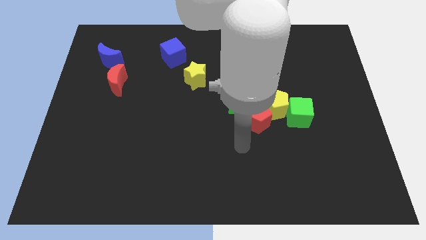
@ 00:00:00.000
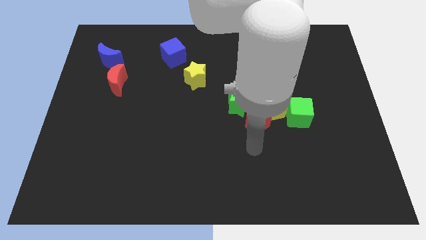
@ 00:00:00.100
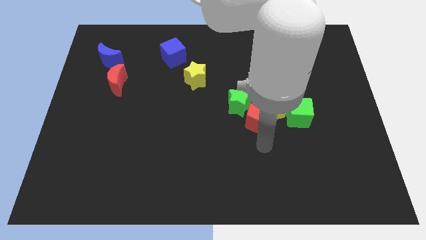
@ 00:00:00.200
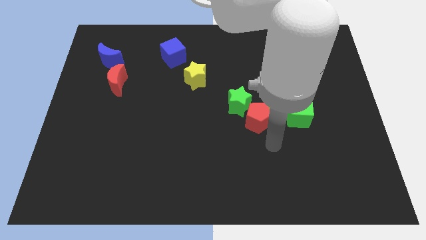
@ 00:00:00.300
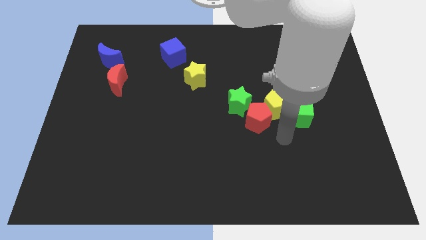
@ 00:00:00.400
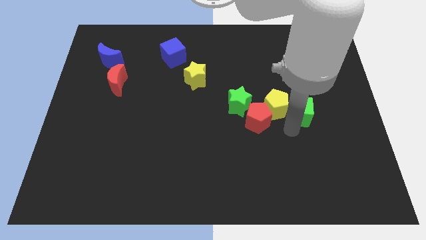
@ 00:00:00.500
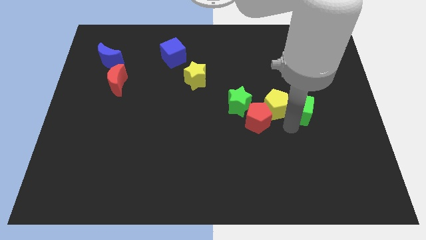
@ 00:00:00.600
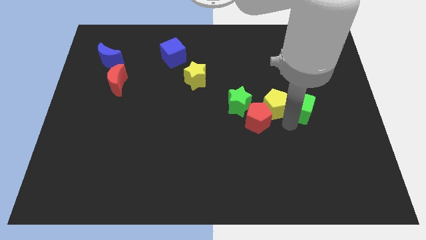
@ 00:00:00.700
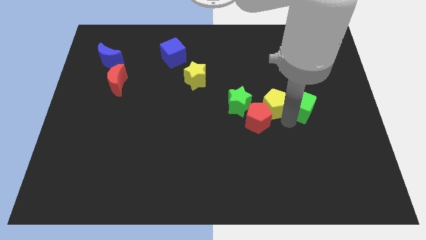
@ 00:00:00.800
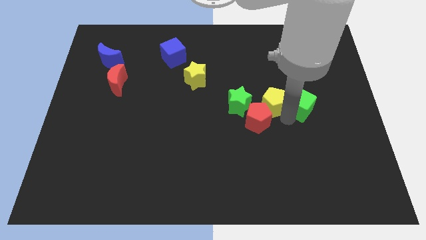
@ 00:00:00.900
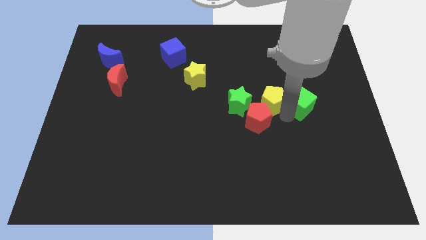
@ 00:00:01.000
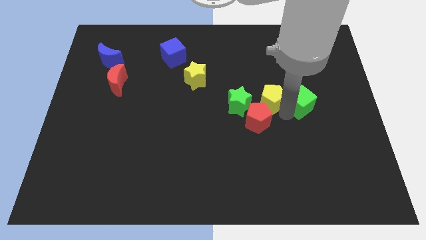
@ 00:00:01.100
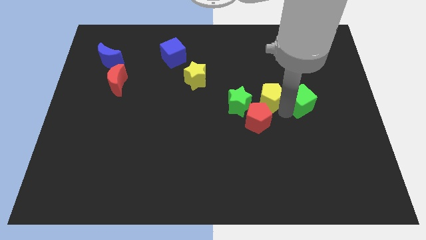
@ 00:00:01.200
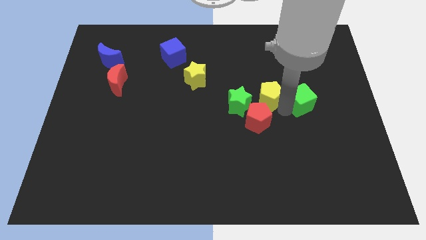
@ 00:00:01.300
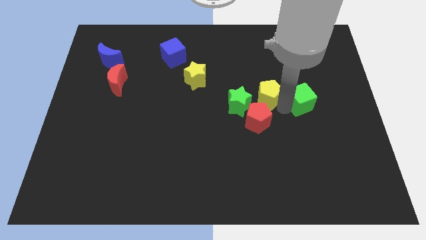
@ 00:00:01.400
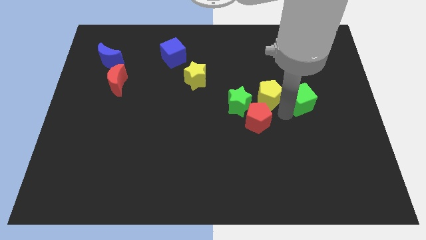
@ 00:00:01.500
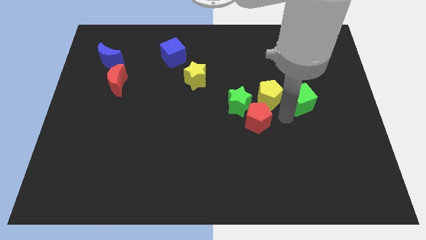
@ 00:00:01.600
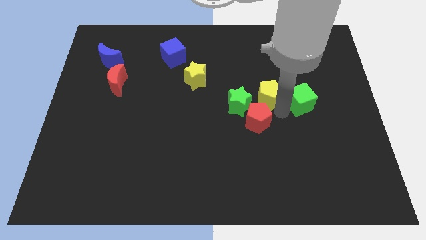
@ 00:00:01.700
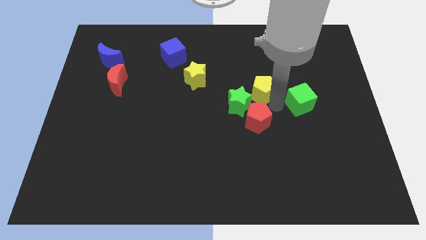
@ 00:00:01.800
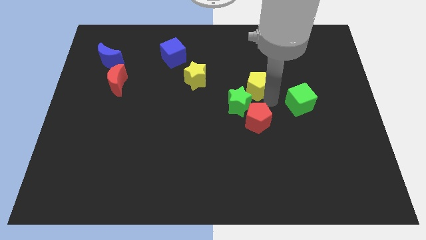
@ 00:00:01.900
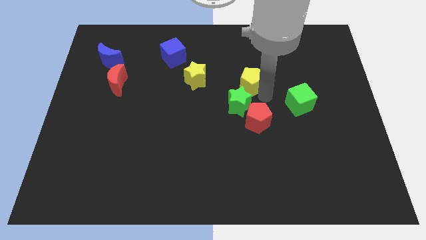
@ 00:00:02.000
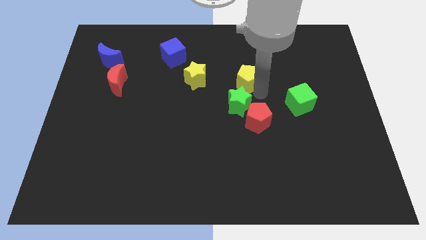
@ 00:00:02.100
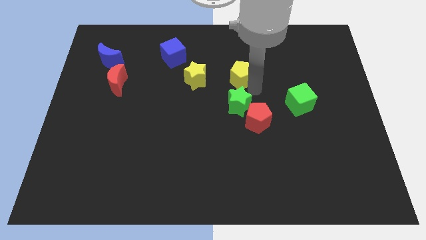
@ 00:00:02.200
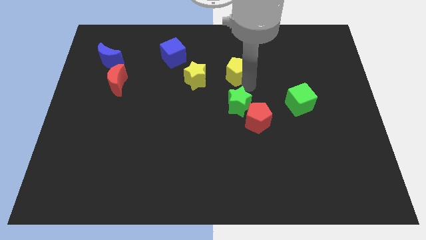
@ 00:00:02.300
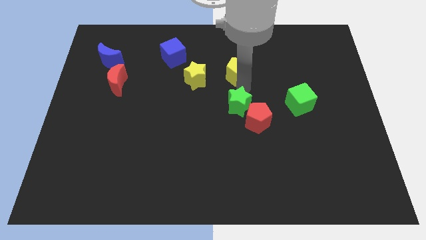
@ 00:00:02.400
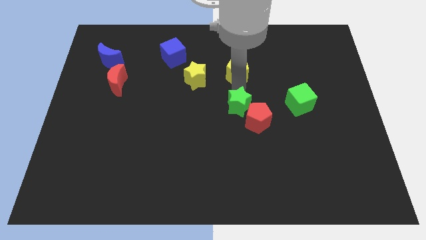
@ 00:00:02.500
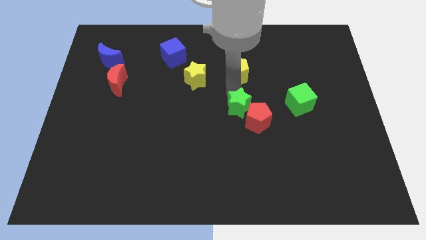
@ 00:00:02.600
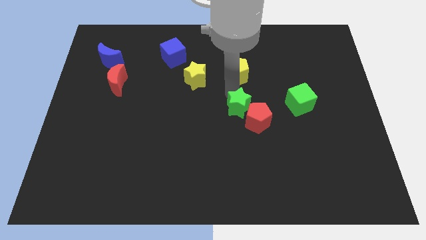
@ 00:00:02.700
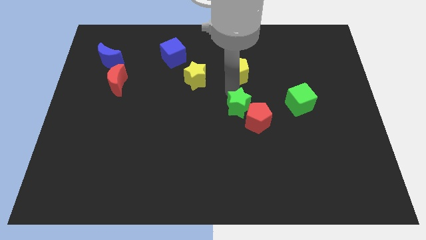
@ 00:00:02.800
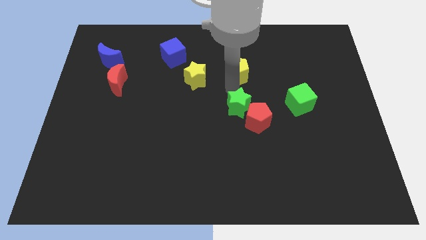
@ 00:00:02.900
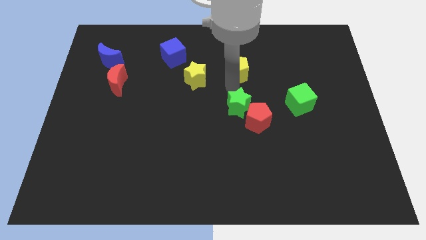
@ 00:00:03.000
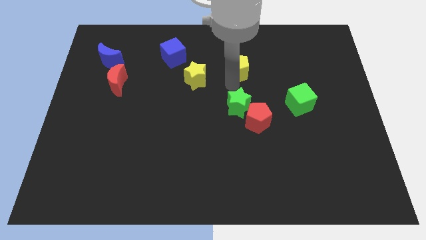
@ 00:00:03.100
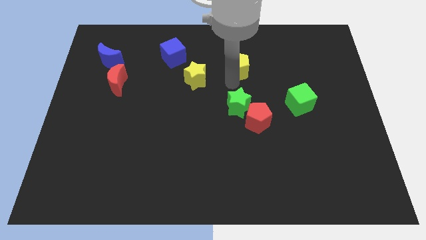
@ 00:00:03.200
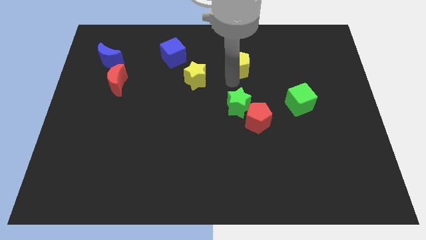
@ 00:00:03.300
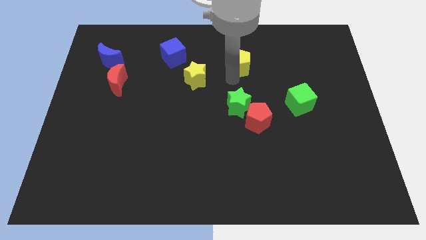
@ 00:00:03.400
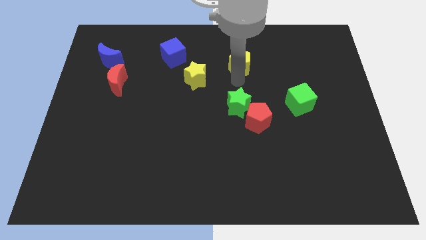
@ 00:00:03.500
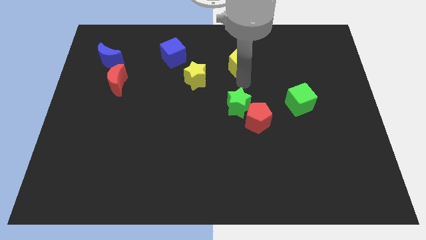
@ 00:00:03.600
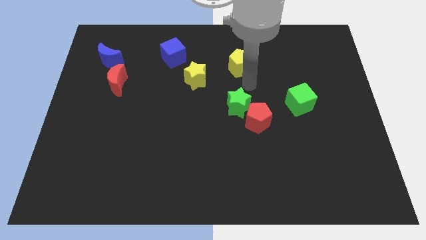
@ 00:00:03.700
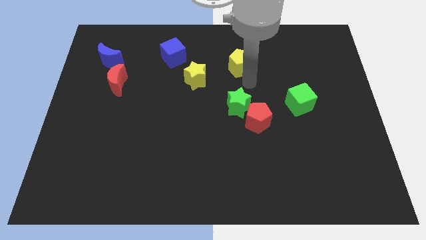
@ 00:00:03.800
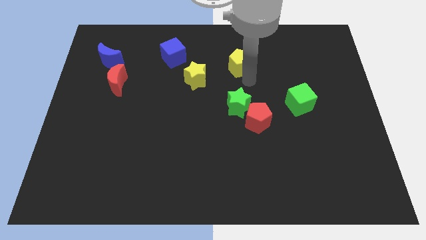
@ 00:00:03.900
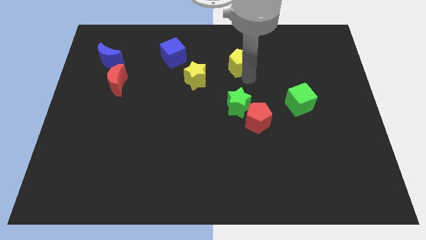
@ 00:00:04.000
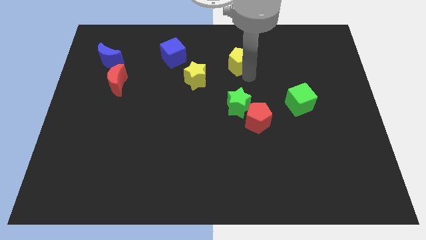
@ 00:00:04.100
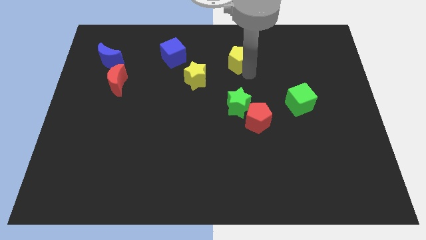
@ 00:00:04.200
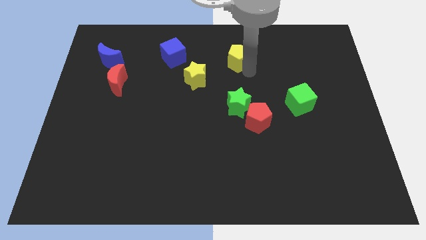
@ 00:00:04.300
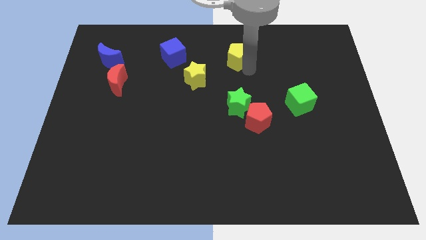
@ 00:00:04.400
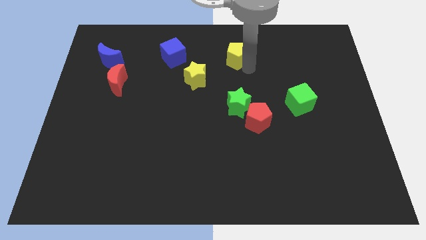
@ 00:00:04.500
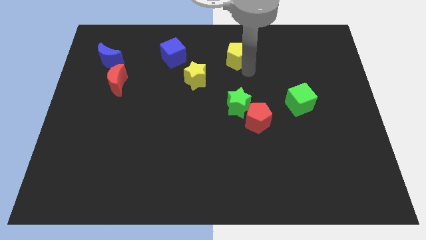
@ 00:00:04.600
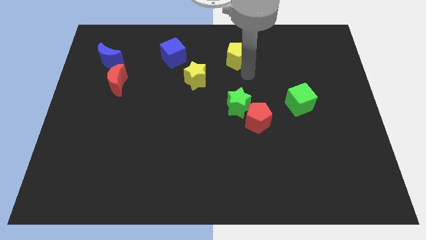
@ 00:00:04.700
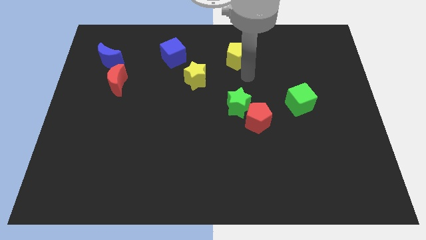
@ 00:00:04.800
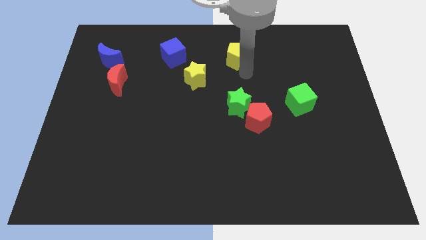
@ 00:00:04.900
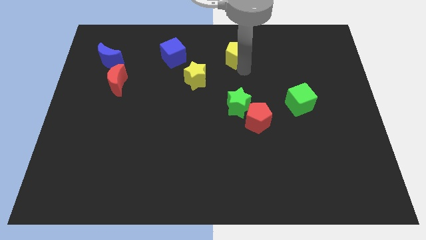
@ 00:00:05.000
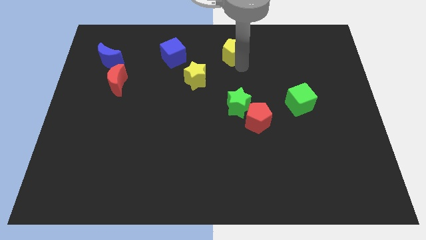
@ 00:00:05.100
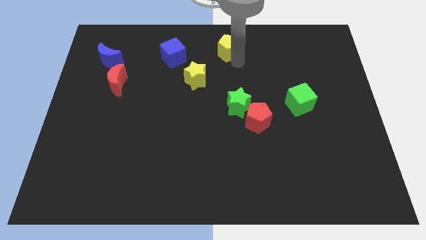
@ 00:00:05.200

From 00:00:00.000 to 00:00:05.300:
slide the yellow pentagon to the top side
